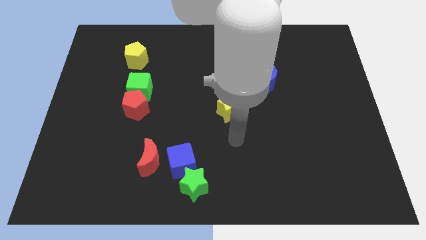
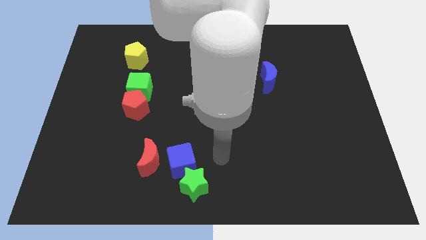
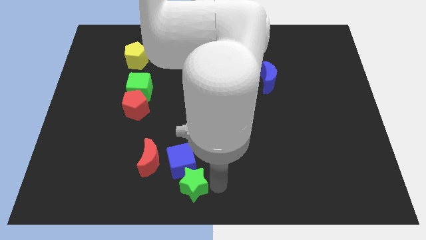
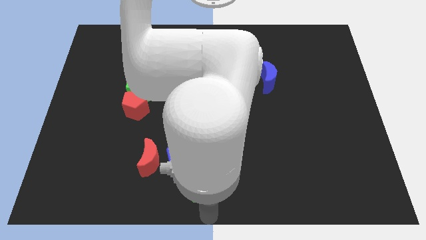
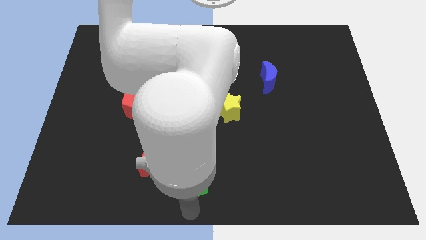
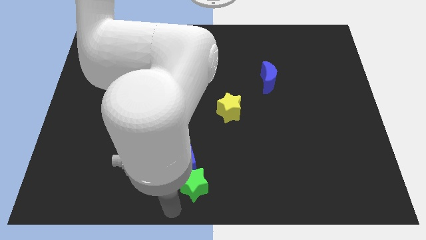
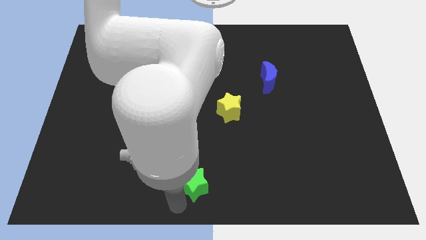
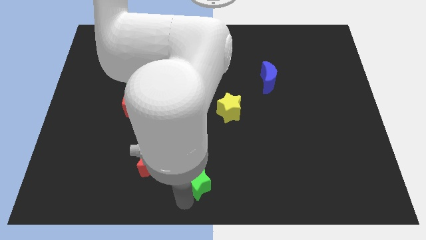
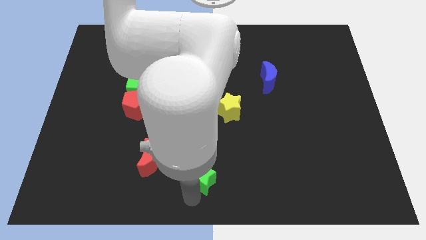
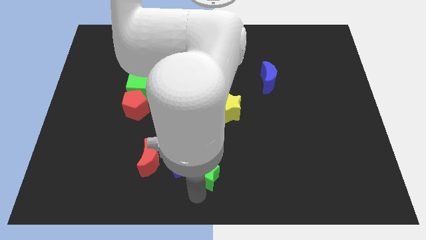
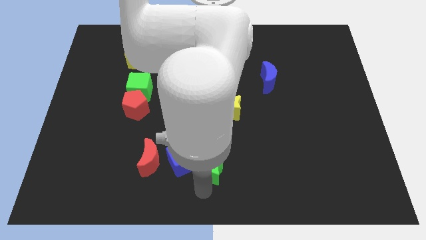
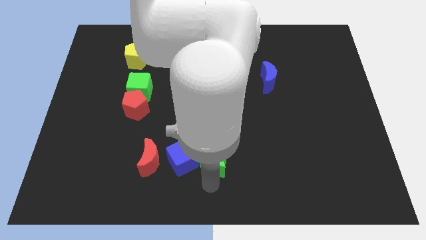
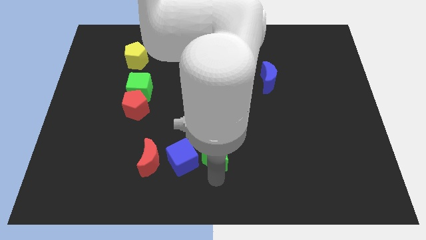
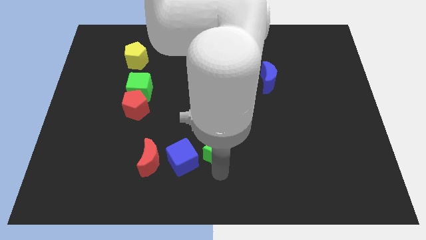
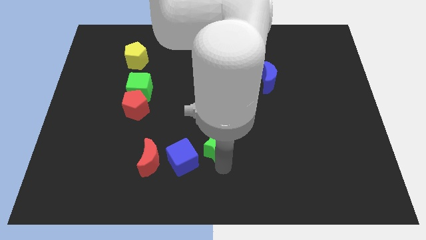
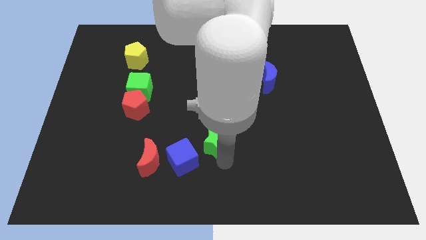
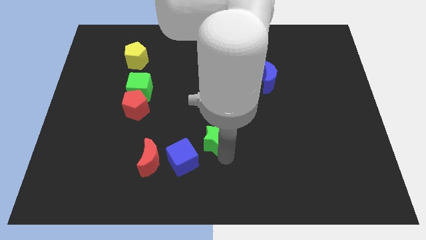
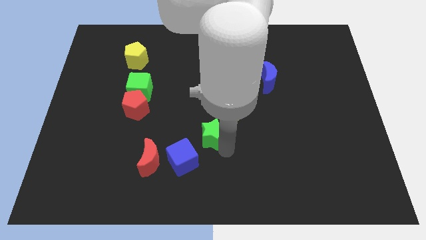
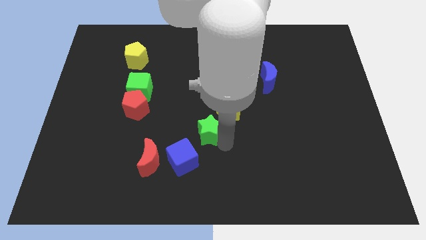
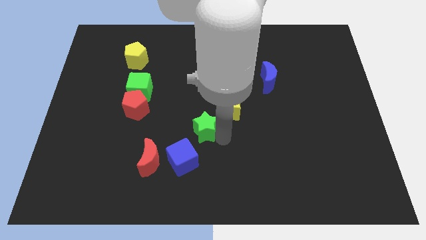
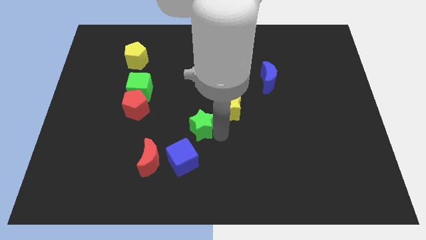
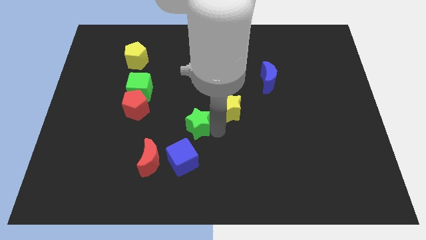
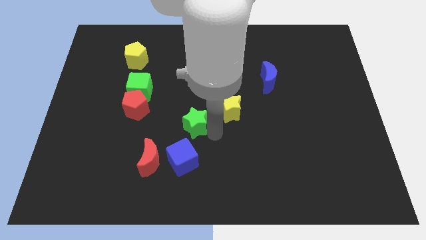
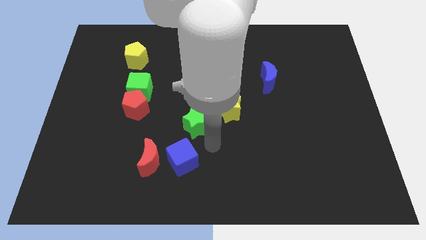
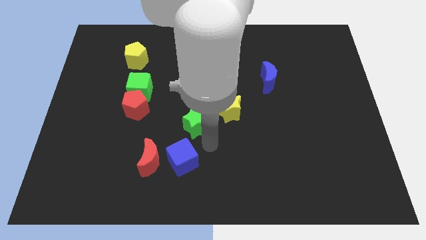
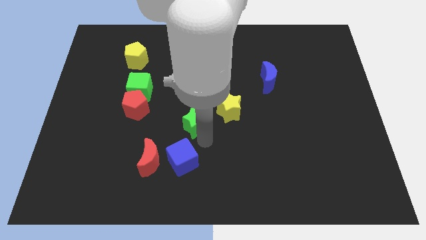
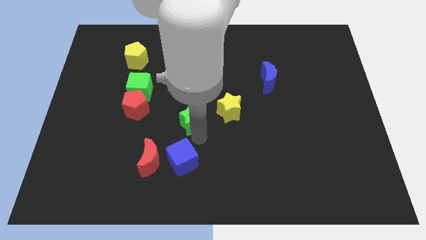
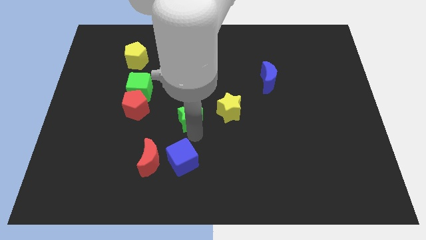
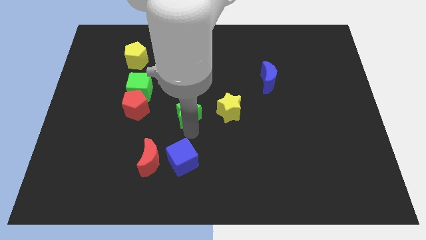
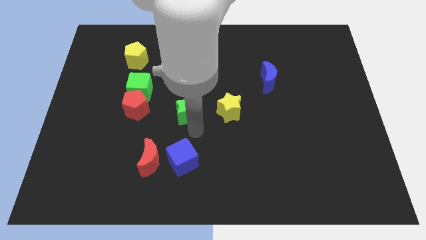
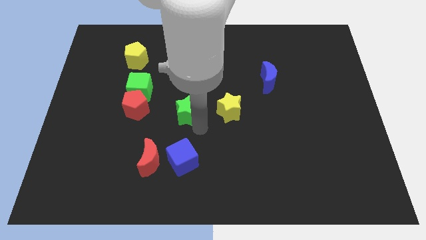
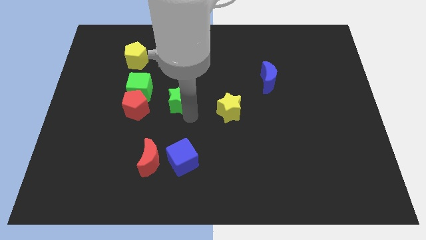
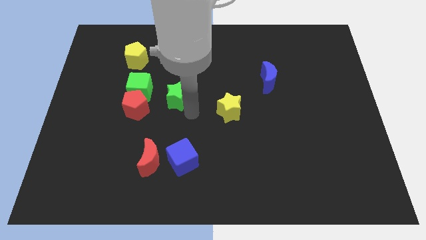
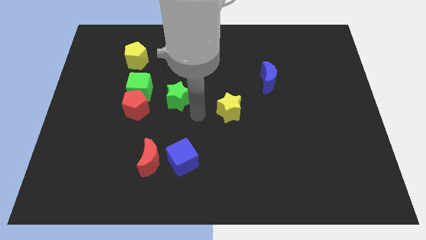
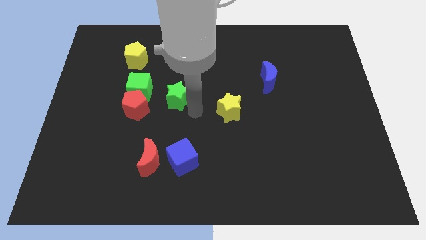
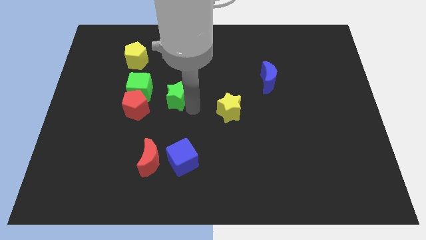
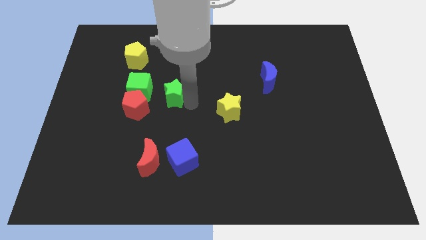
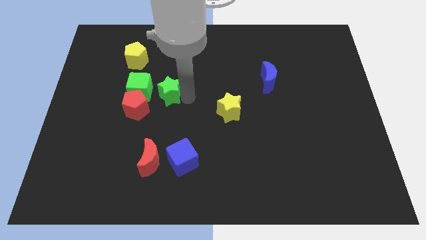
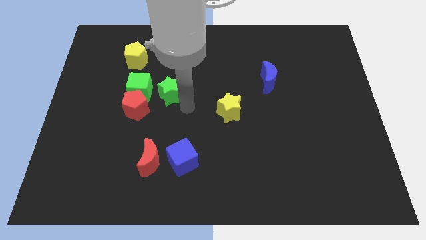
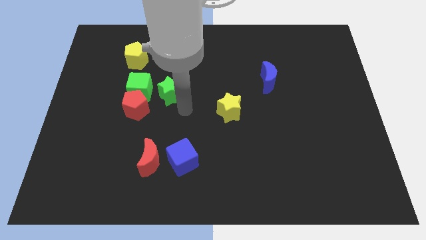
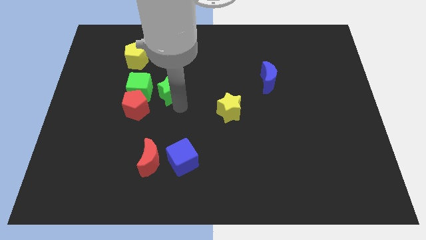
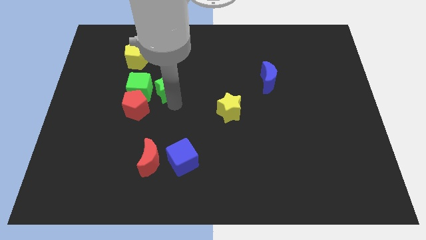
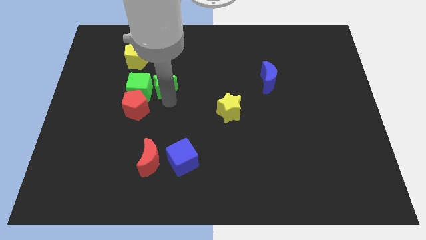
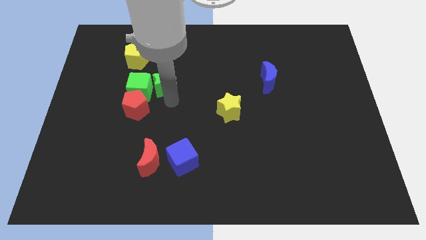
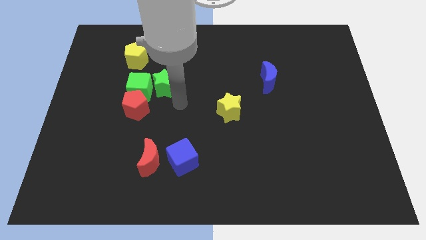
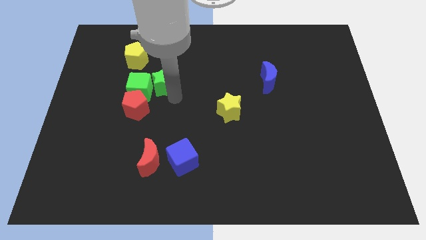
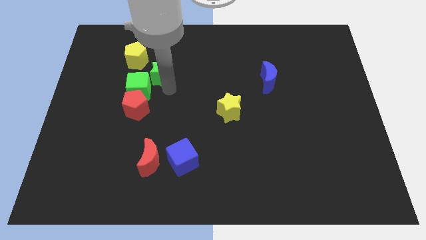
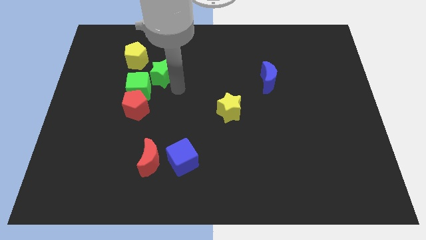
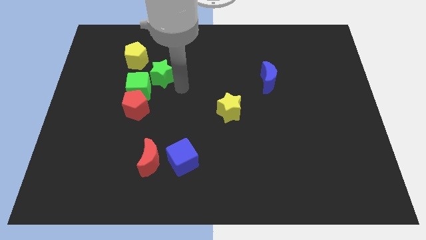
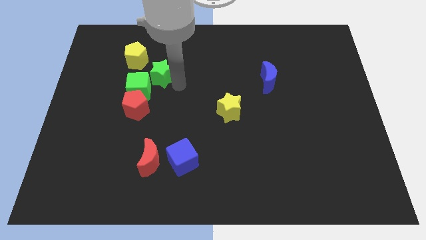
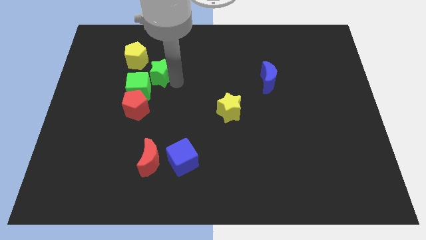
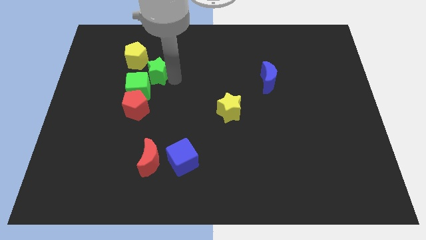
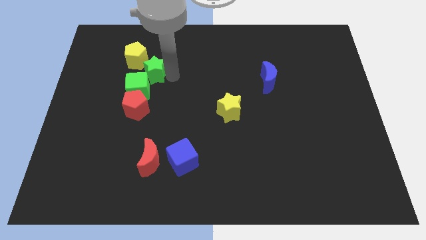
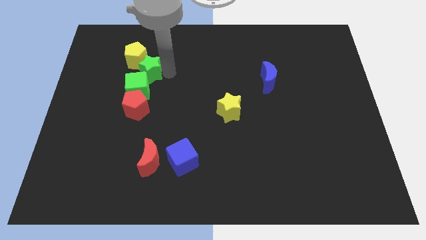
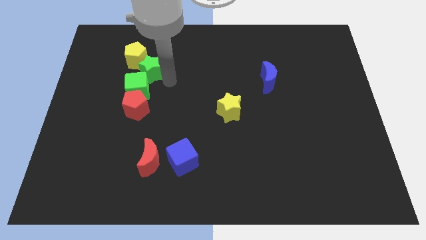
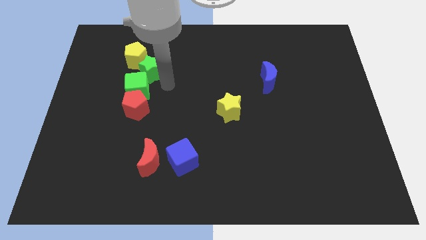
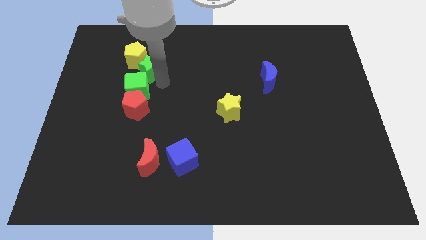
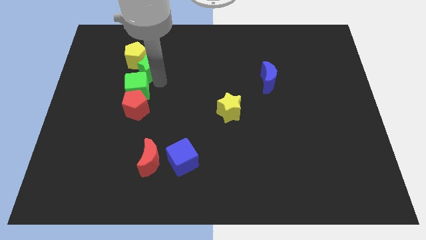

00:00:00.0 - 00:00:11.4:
move the green star towards the yellow pentagon

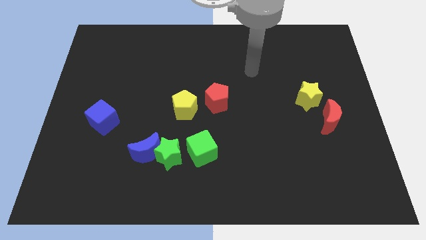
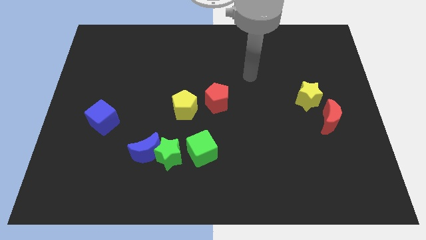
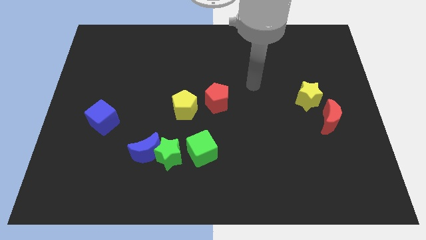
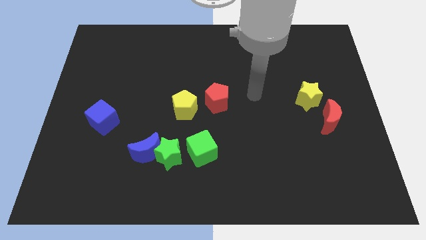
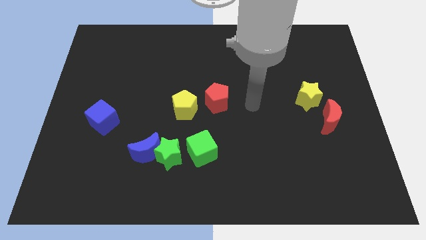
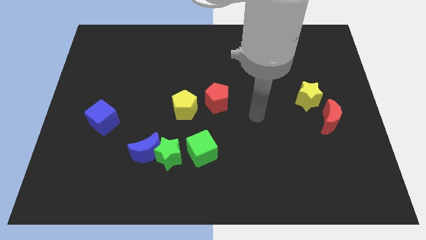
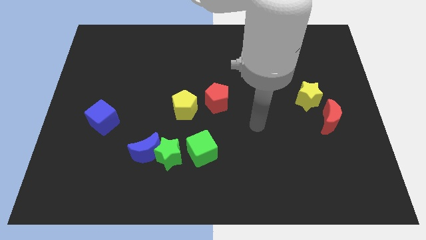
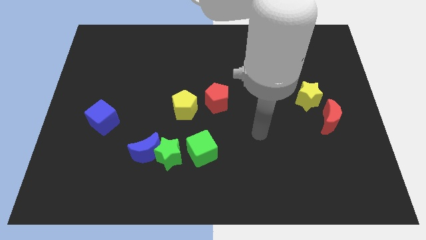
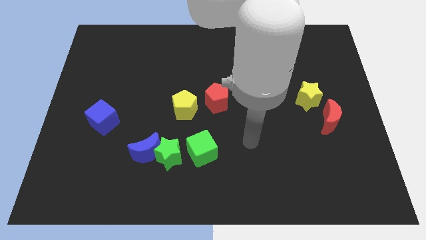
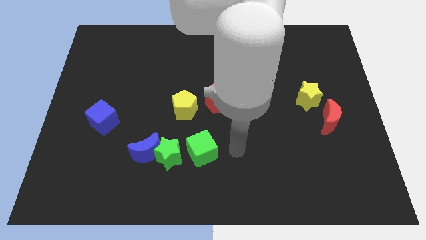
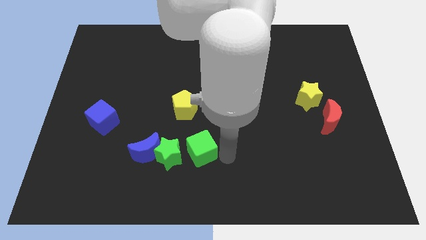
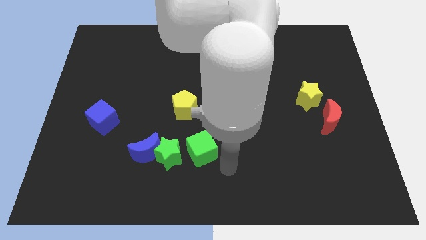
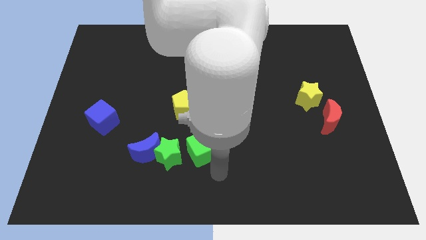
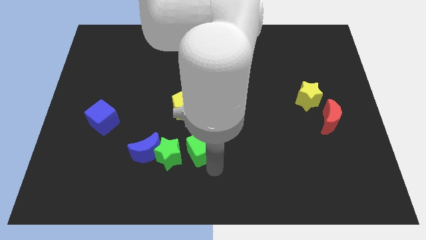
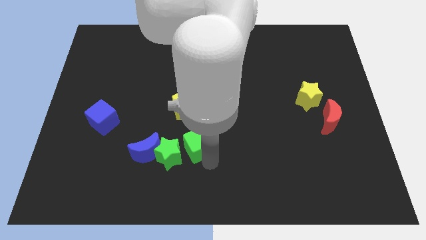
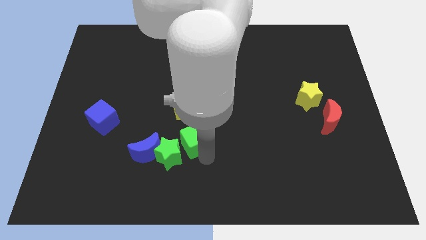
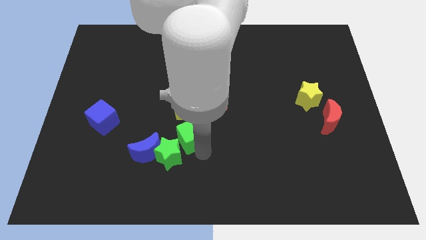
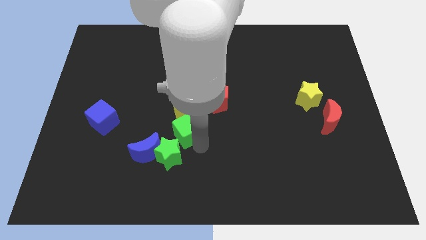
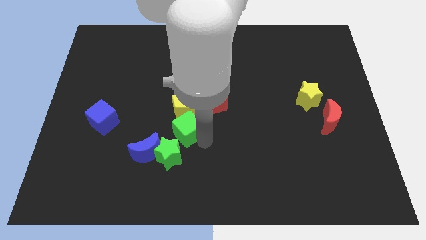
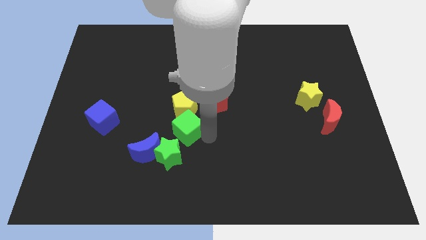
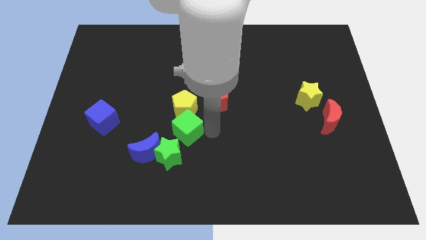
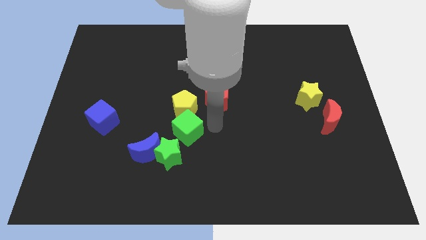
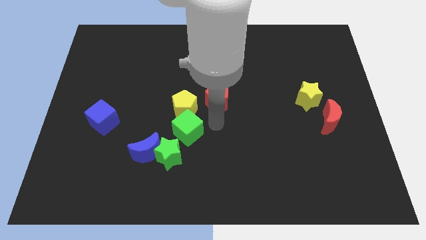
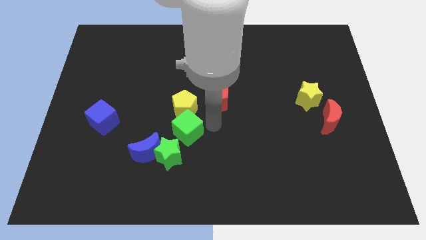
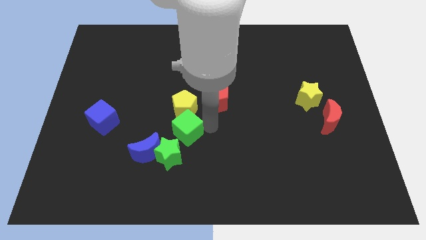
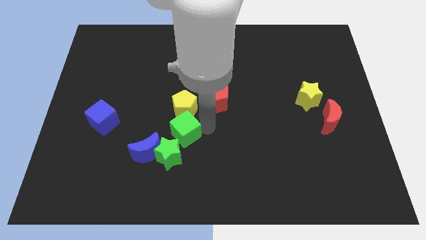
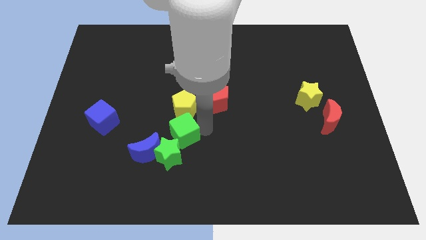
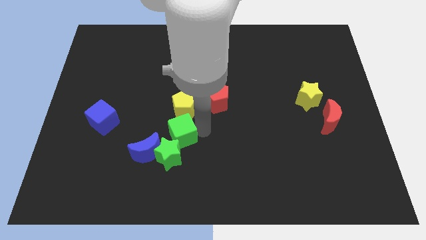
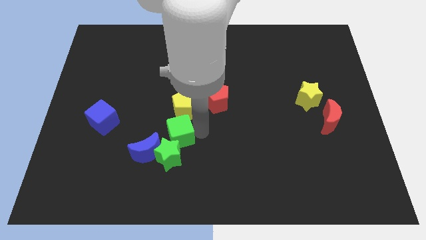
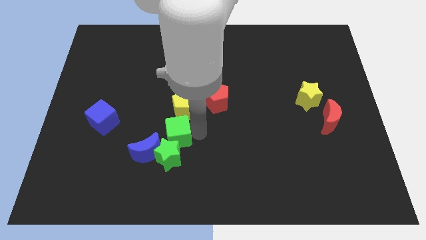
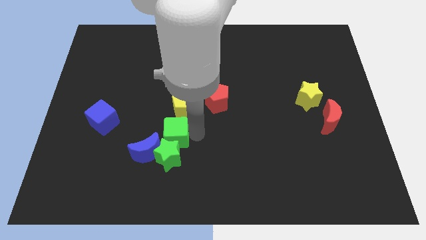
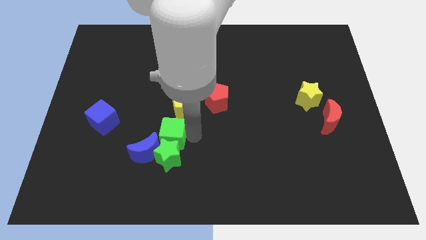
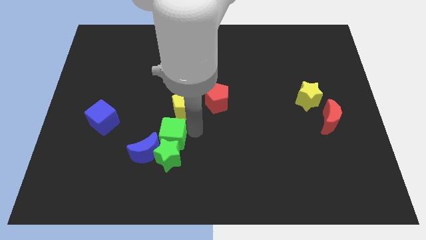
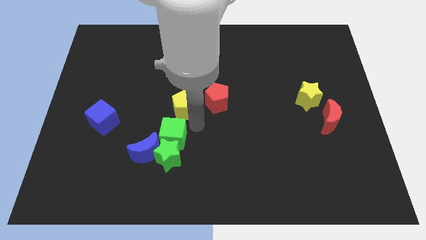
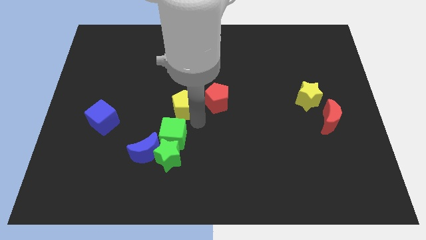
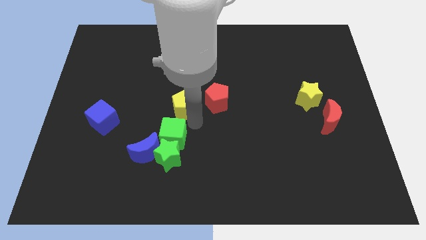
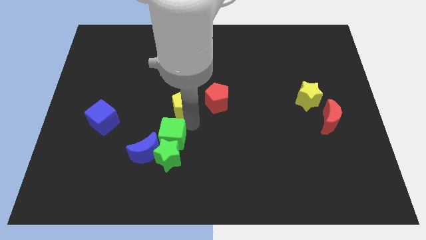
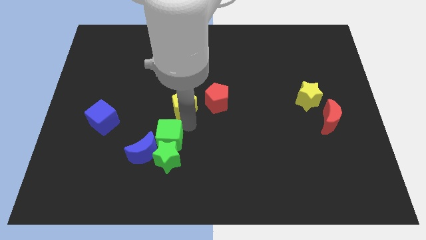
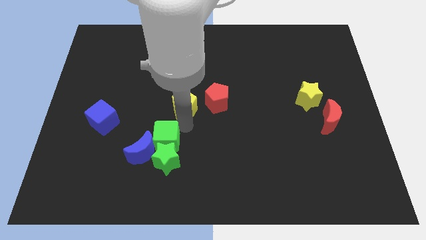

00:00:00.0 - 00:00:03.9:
move the green cube close to the blue moon
